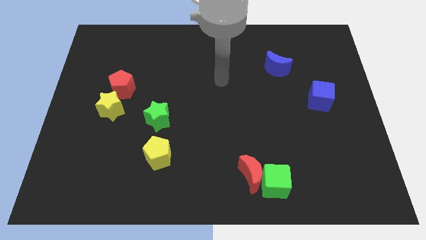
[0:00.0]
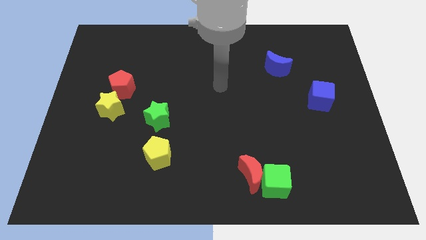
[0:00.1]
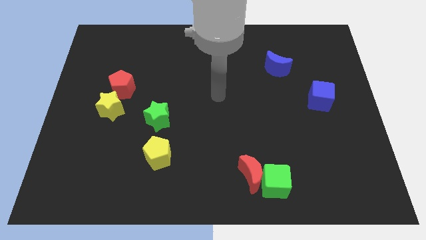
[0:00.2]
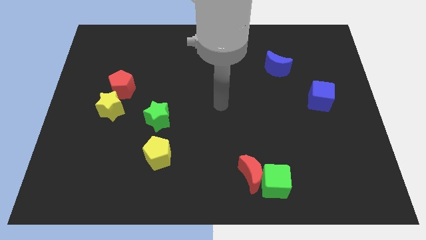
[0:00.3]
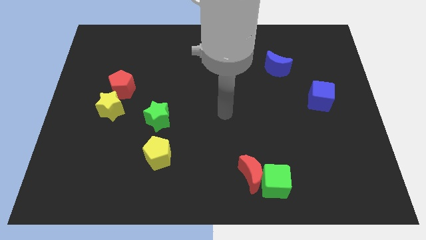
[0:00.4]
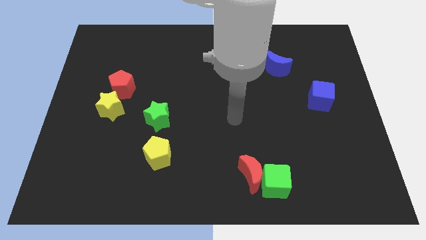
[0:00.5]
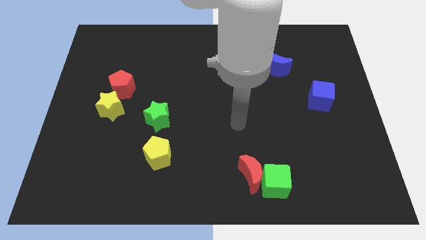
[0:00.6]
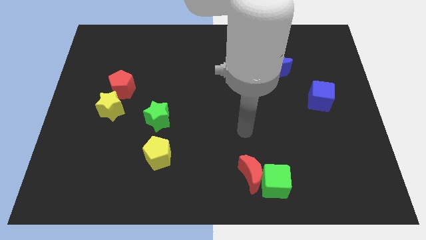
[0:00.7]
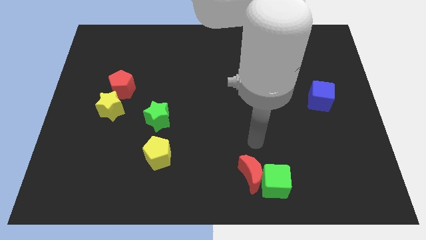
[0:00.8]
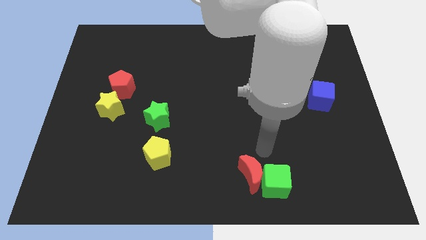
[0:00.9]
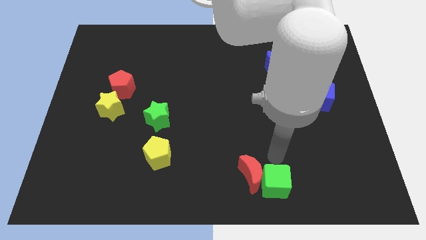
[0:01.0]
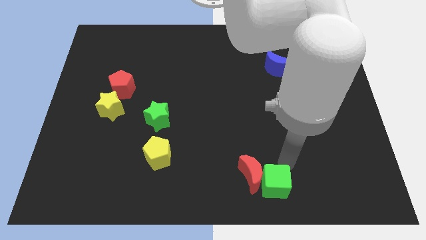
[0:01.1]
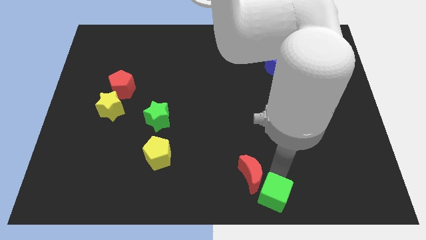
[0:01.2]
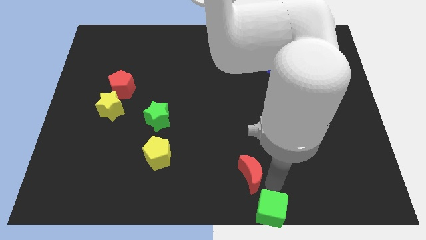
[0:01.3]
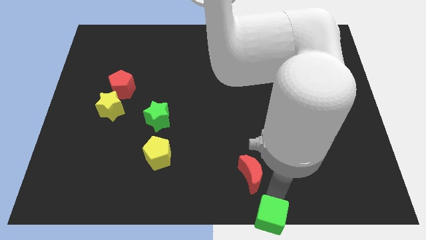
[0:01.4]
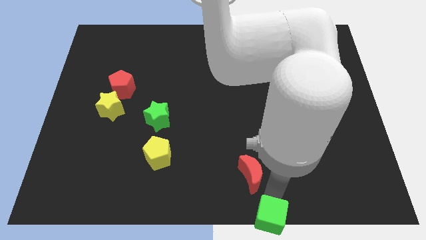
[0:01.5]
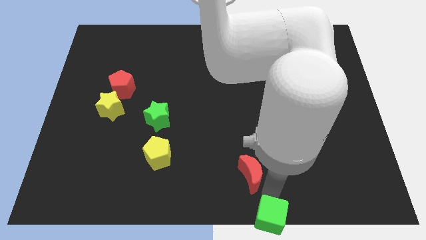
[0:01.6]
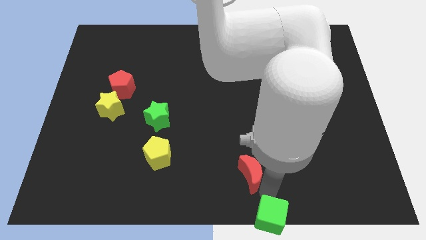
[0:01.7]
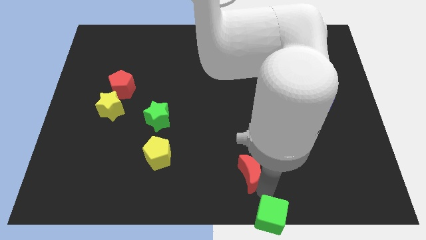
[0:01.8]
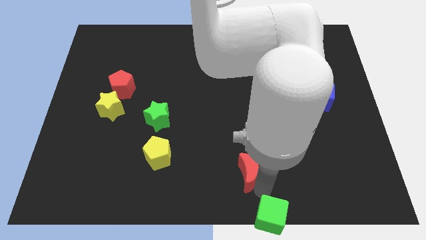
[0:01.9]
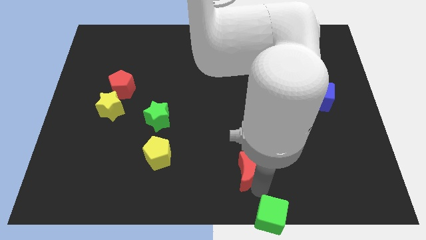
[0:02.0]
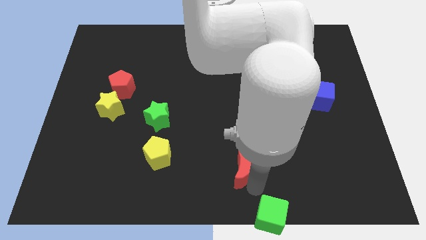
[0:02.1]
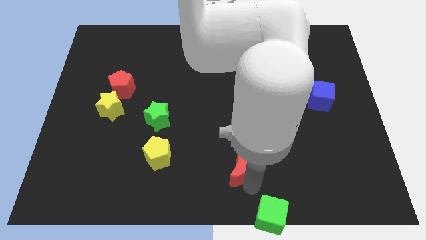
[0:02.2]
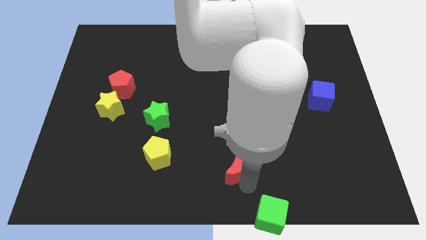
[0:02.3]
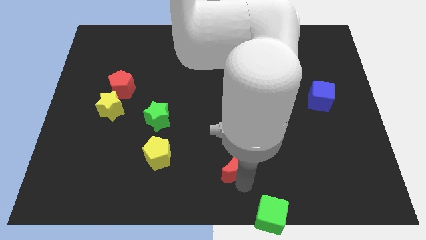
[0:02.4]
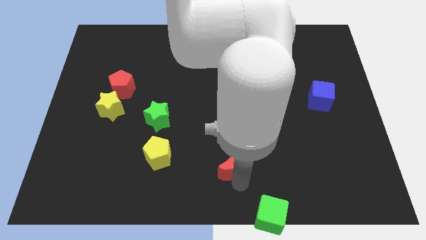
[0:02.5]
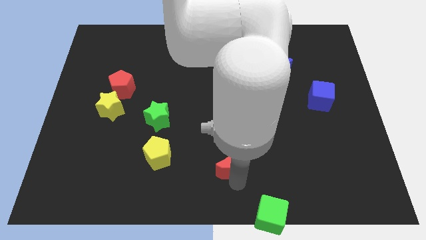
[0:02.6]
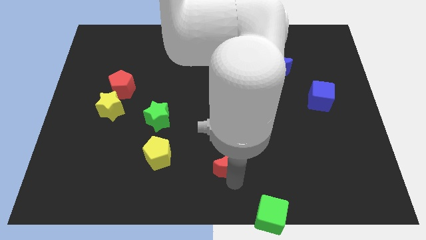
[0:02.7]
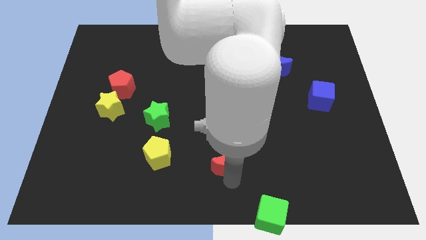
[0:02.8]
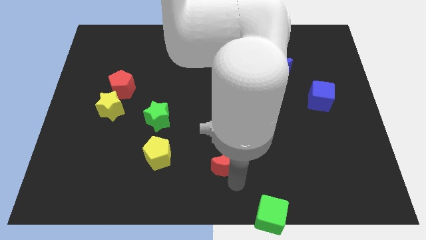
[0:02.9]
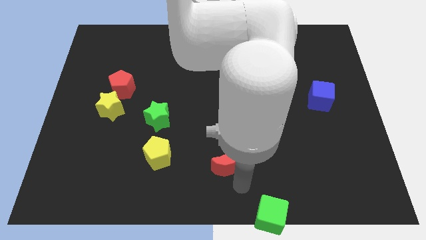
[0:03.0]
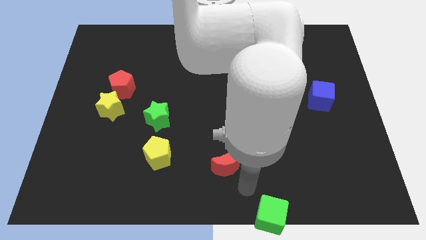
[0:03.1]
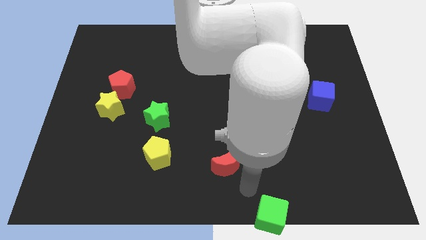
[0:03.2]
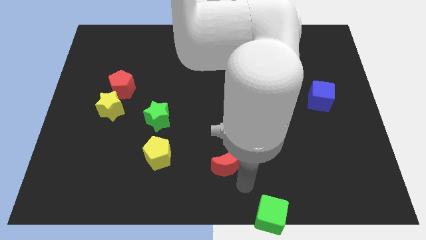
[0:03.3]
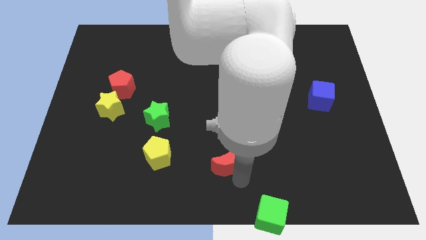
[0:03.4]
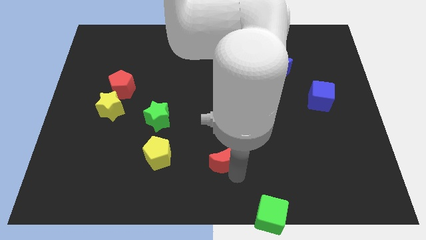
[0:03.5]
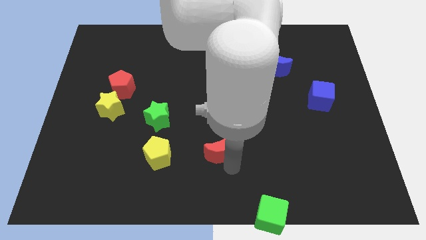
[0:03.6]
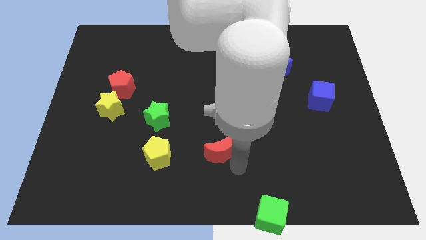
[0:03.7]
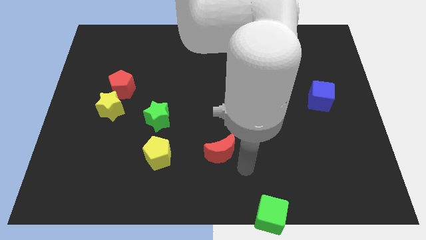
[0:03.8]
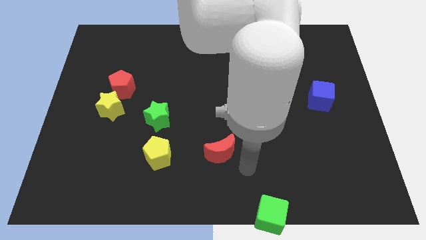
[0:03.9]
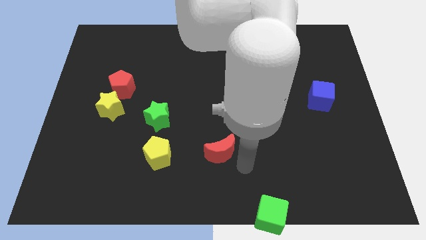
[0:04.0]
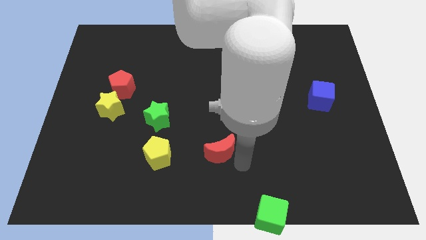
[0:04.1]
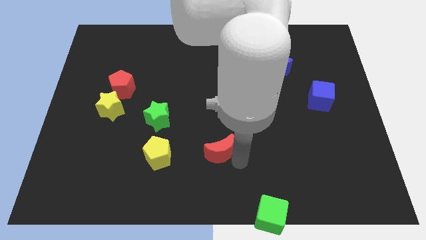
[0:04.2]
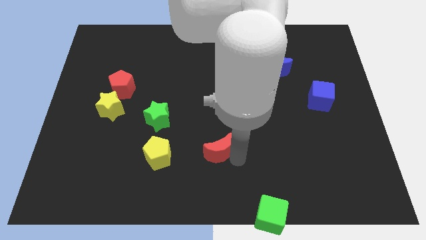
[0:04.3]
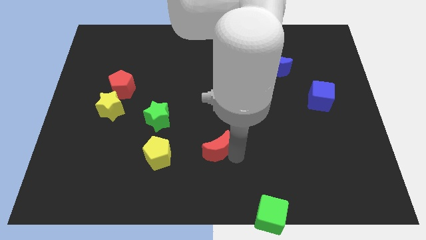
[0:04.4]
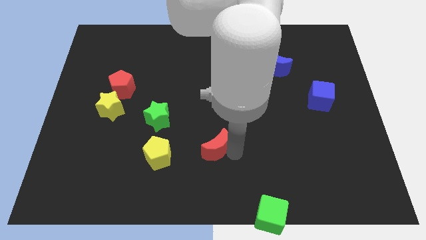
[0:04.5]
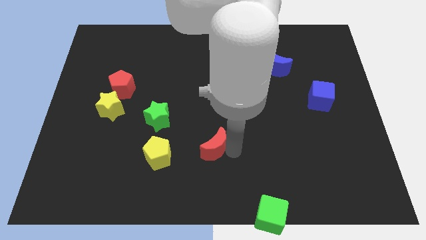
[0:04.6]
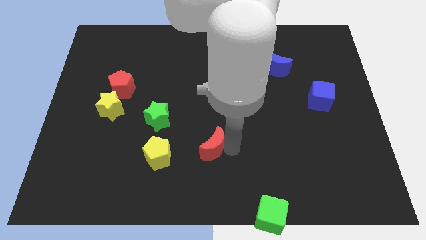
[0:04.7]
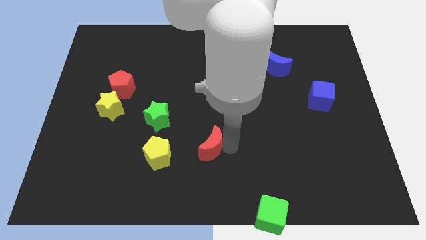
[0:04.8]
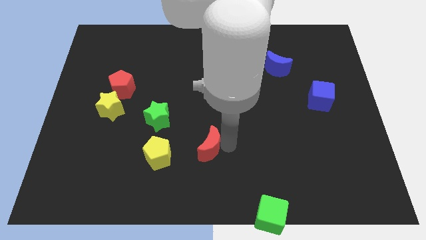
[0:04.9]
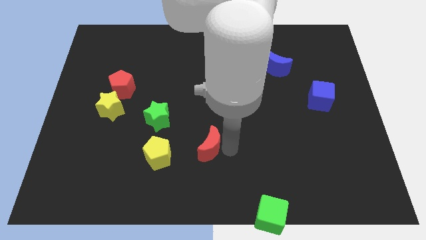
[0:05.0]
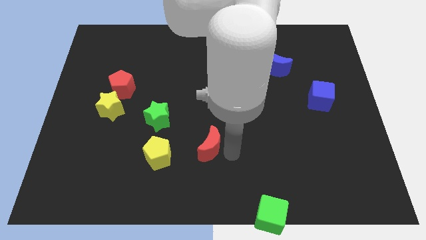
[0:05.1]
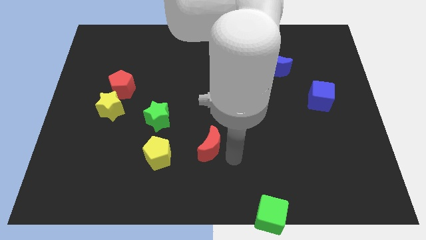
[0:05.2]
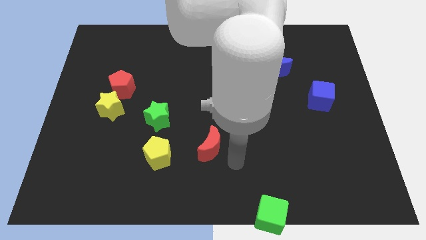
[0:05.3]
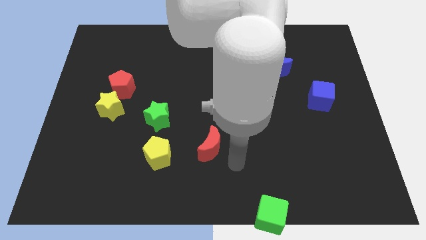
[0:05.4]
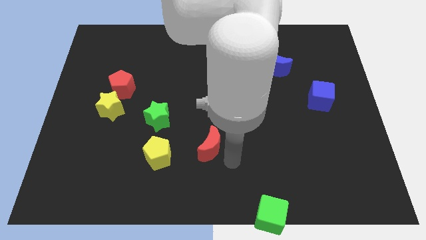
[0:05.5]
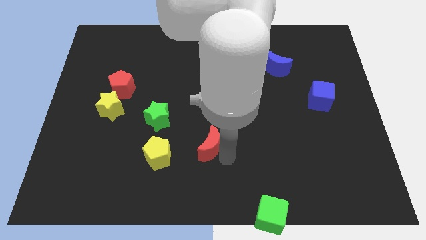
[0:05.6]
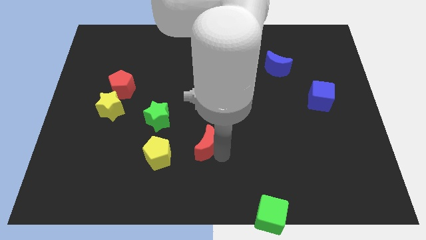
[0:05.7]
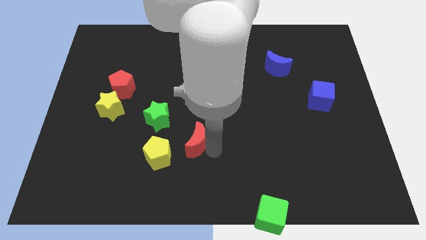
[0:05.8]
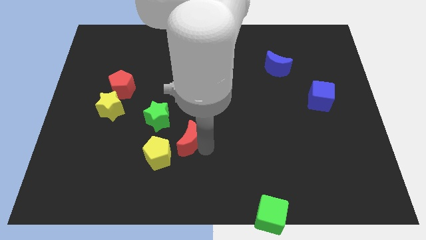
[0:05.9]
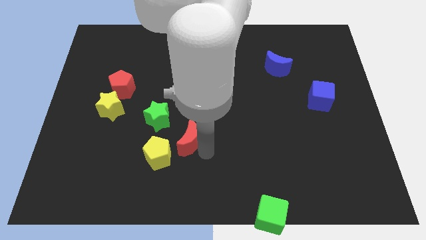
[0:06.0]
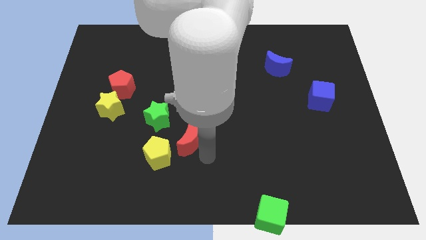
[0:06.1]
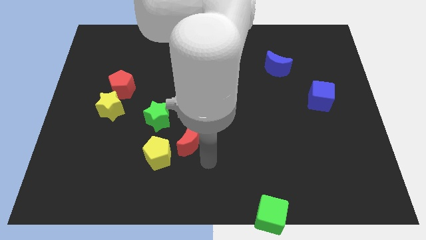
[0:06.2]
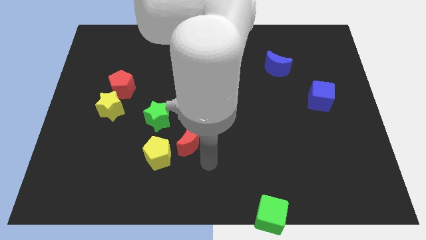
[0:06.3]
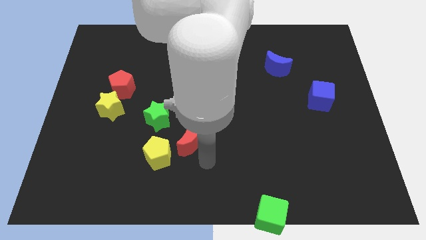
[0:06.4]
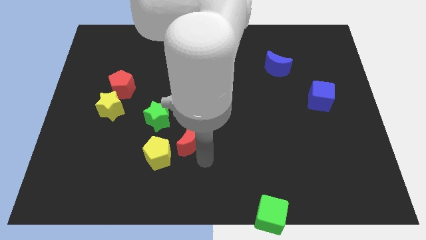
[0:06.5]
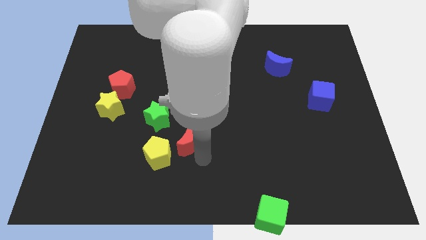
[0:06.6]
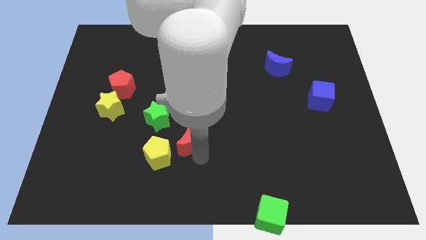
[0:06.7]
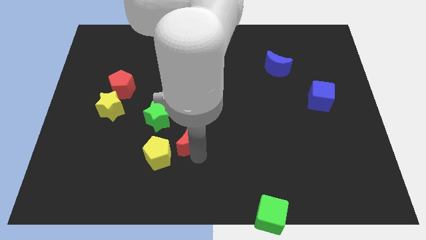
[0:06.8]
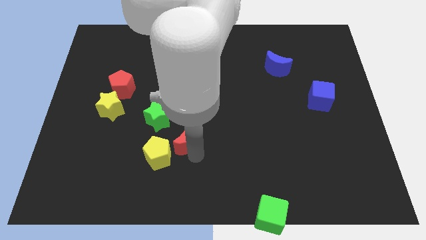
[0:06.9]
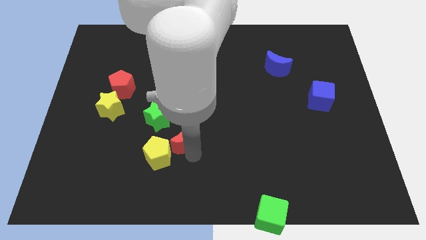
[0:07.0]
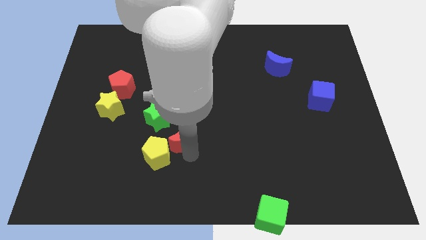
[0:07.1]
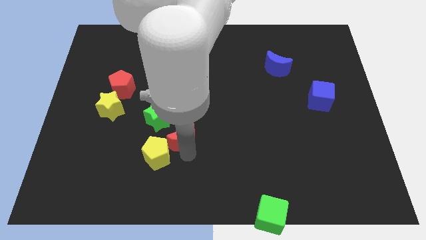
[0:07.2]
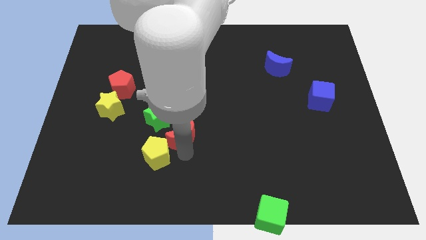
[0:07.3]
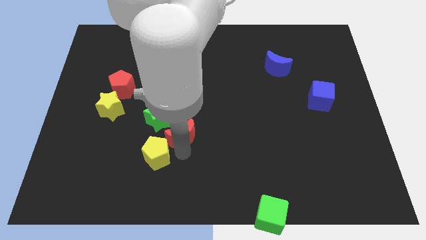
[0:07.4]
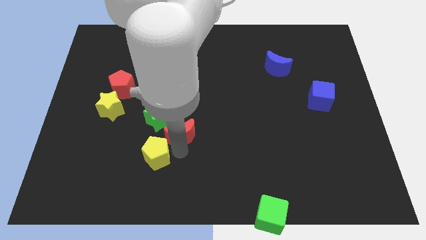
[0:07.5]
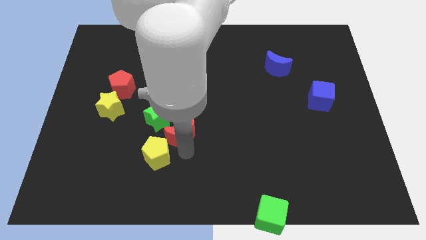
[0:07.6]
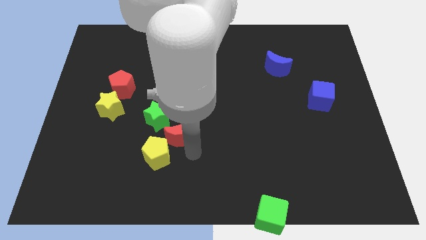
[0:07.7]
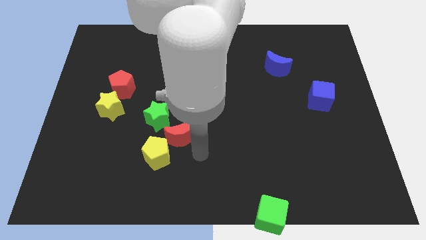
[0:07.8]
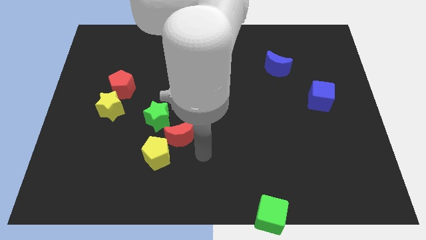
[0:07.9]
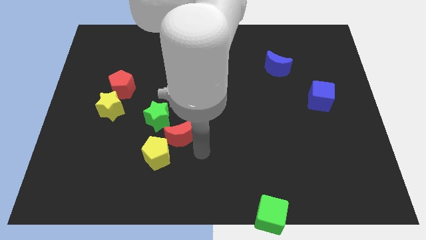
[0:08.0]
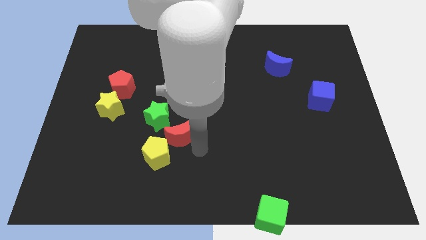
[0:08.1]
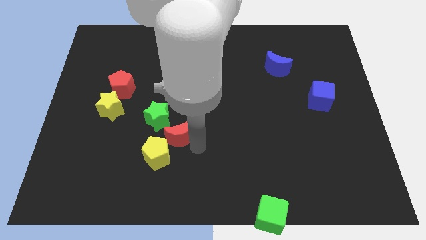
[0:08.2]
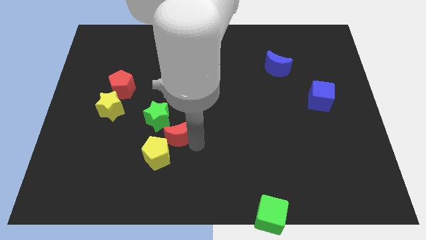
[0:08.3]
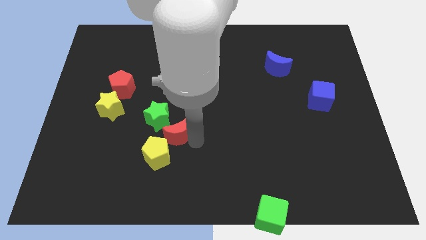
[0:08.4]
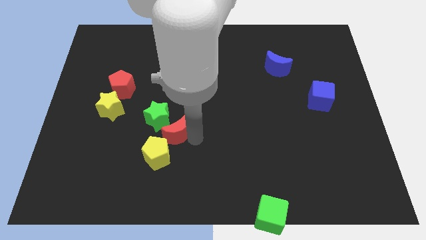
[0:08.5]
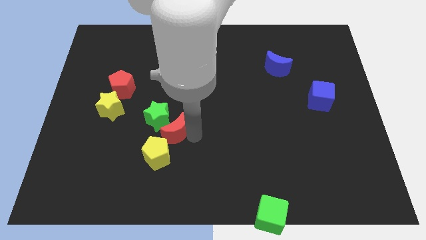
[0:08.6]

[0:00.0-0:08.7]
put the red moon to the green star
